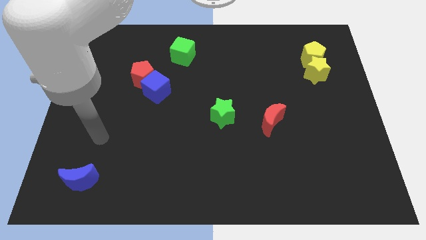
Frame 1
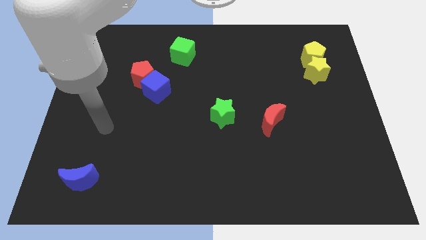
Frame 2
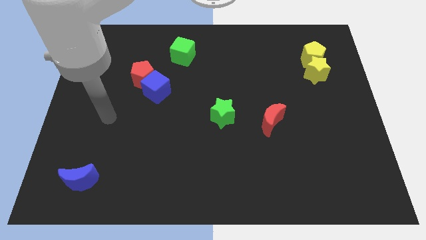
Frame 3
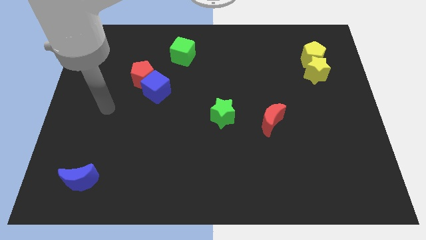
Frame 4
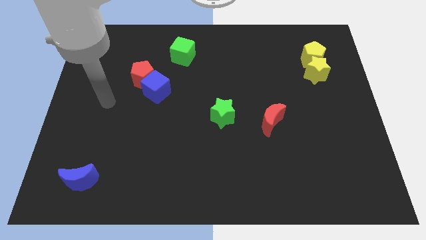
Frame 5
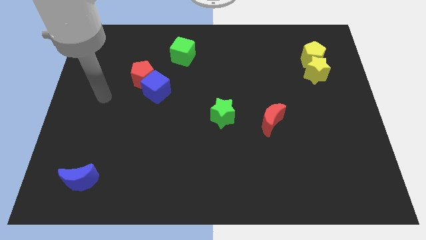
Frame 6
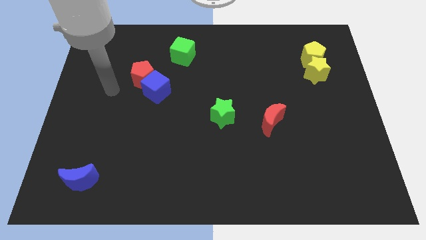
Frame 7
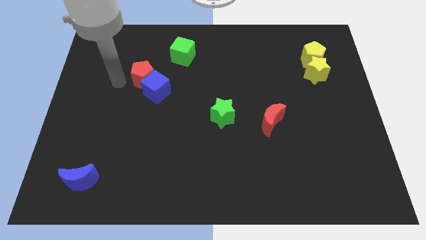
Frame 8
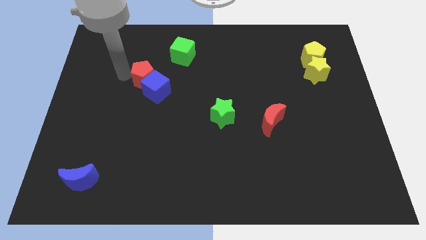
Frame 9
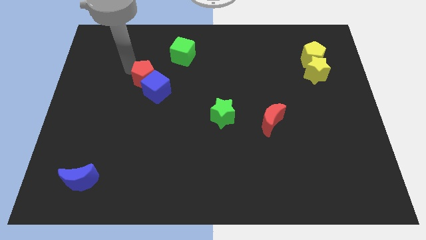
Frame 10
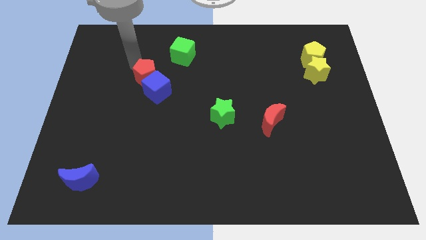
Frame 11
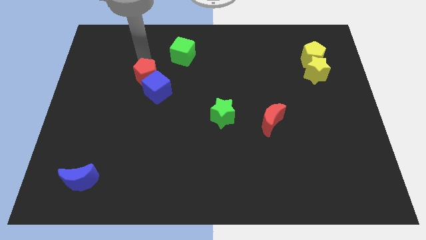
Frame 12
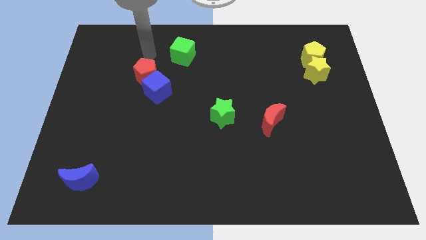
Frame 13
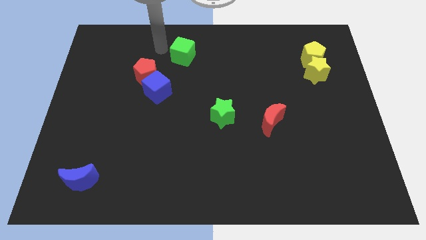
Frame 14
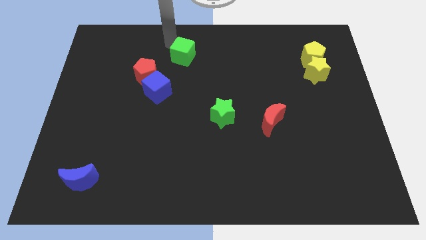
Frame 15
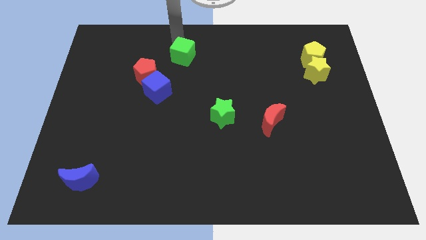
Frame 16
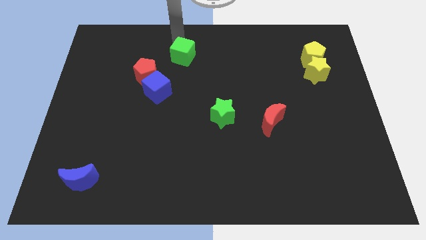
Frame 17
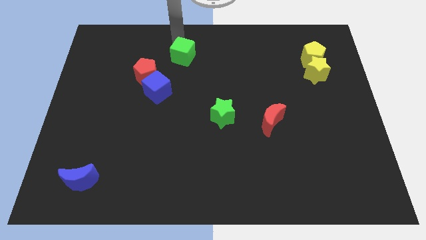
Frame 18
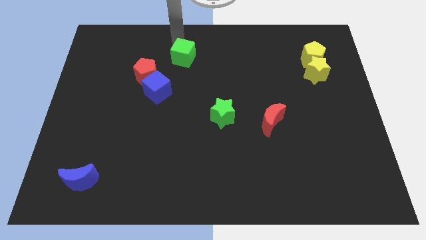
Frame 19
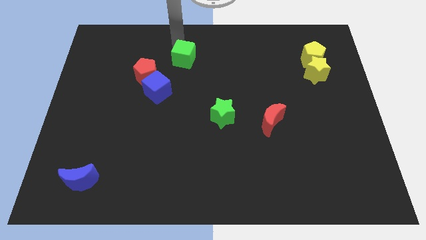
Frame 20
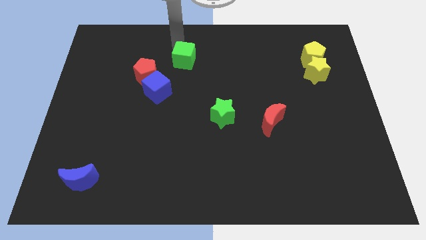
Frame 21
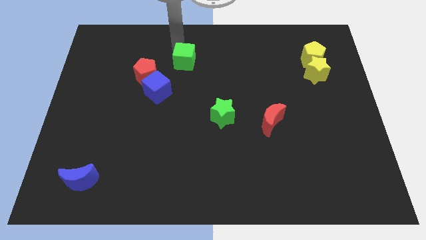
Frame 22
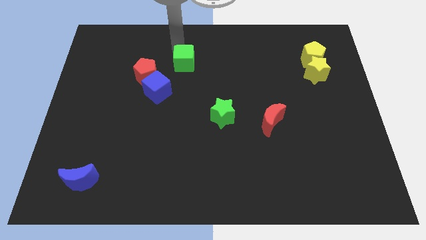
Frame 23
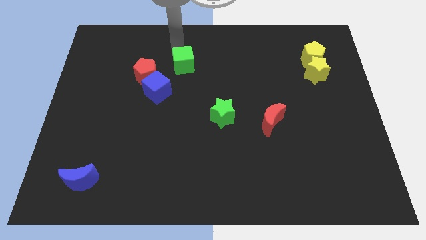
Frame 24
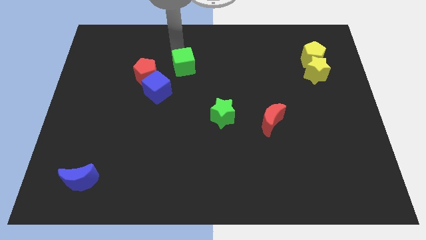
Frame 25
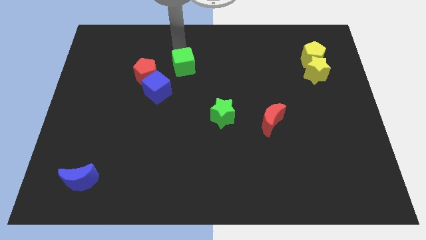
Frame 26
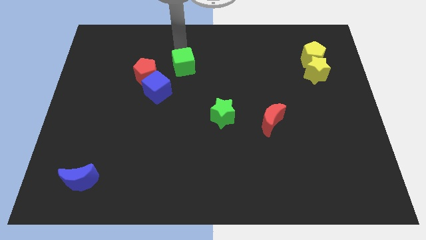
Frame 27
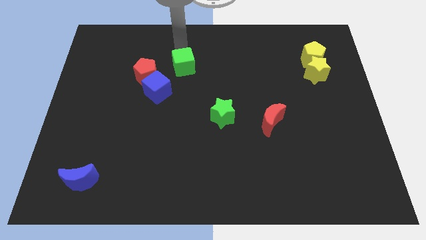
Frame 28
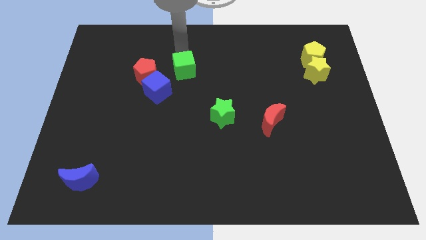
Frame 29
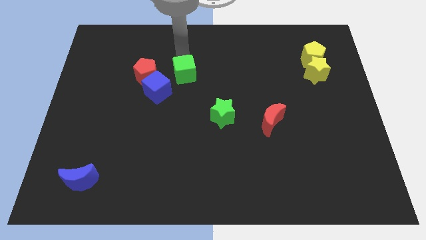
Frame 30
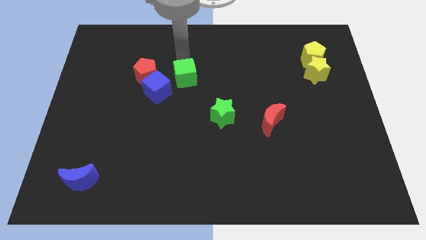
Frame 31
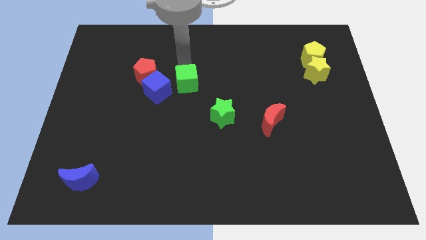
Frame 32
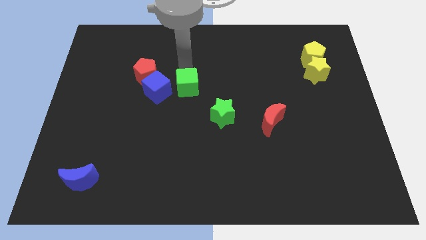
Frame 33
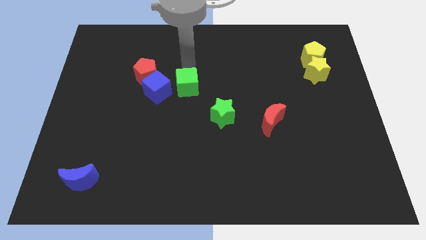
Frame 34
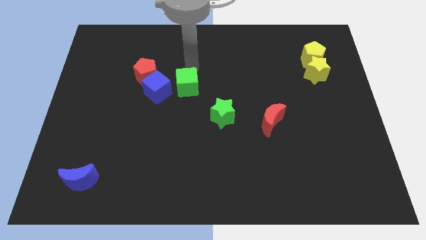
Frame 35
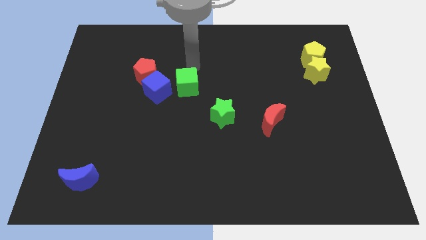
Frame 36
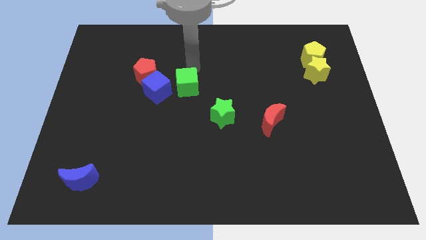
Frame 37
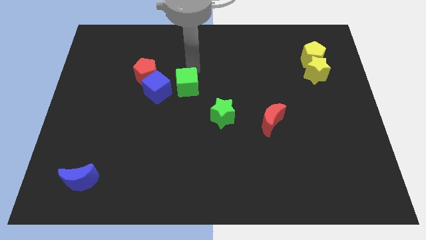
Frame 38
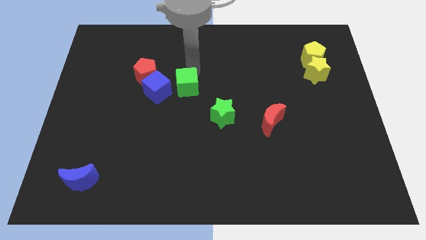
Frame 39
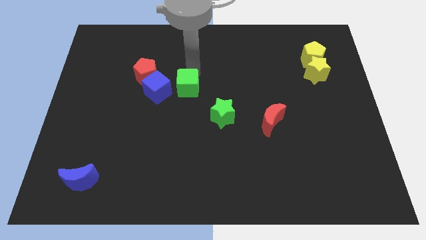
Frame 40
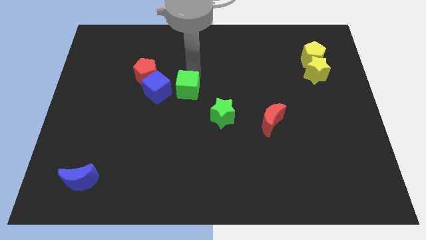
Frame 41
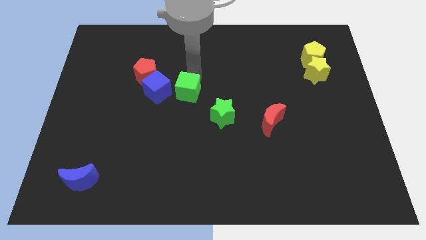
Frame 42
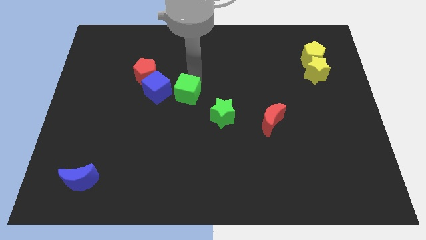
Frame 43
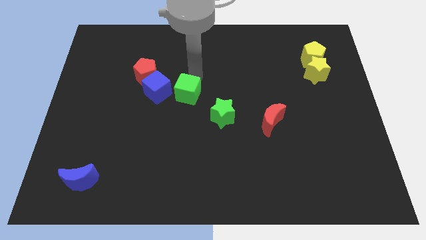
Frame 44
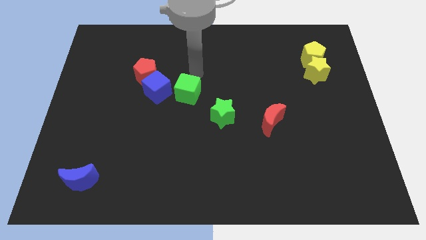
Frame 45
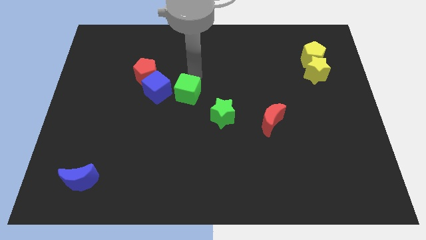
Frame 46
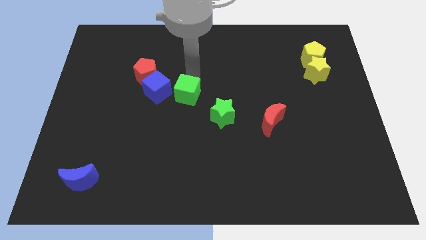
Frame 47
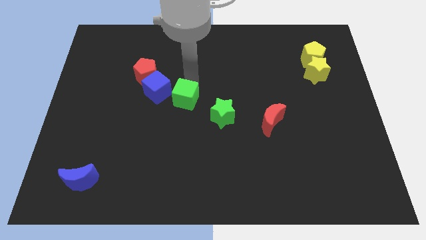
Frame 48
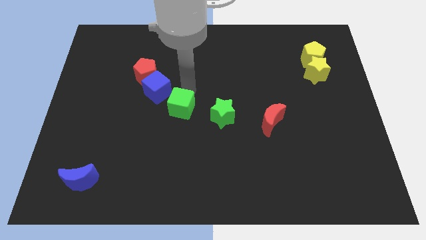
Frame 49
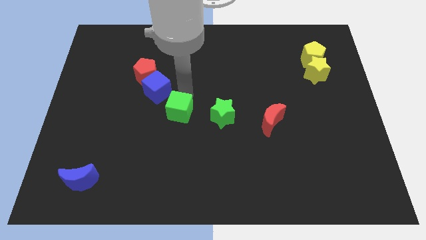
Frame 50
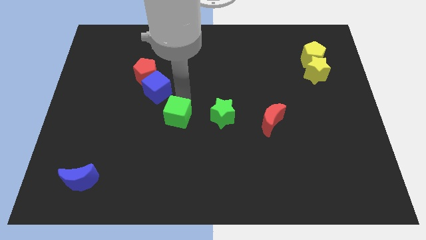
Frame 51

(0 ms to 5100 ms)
slide the green cube down

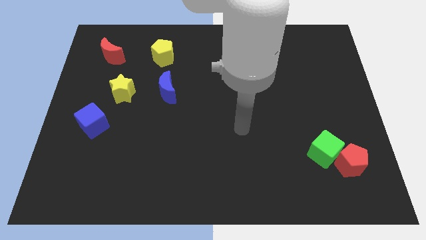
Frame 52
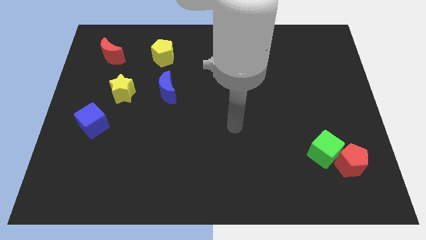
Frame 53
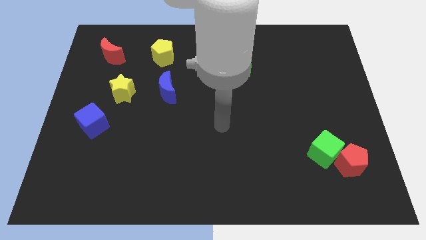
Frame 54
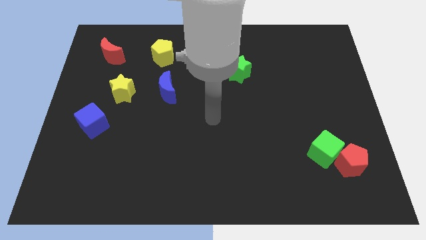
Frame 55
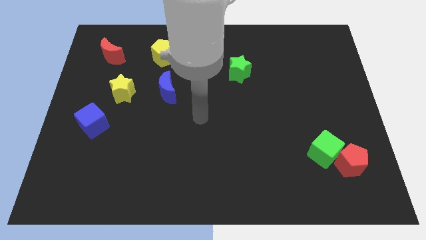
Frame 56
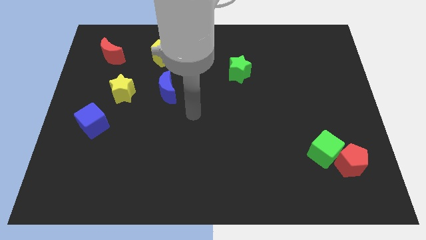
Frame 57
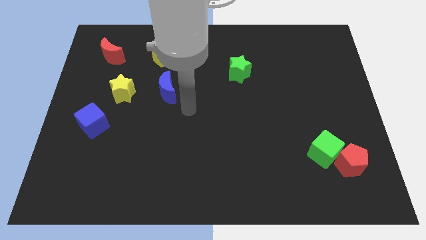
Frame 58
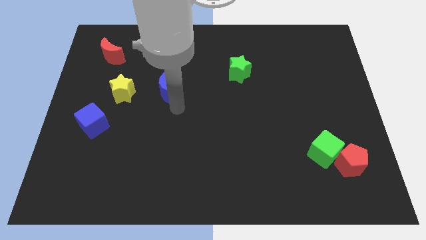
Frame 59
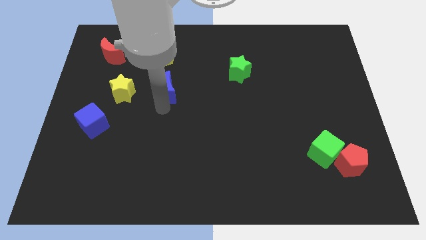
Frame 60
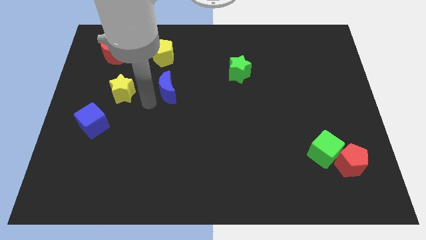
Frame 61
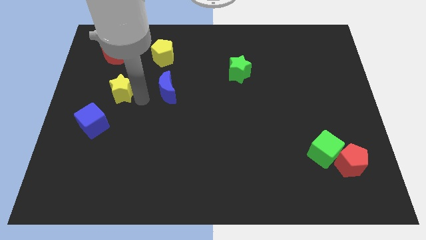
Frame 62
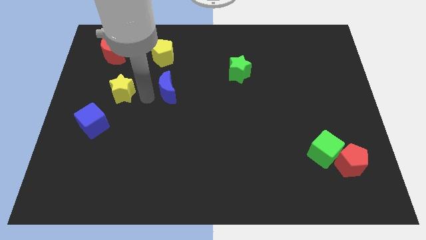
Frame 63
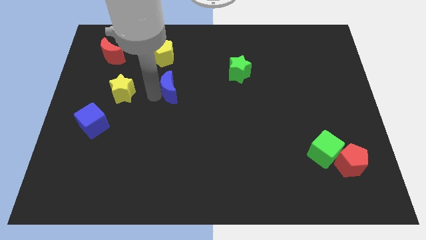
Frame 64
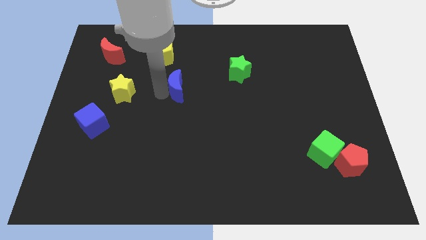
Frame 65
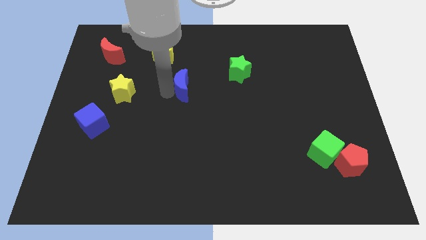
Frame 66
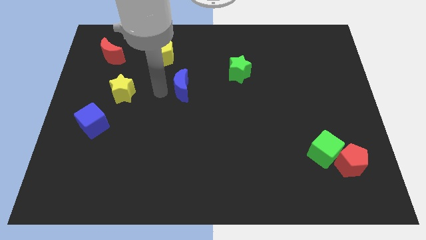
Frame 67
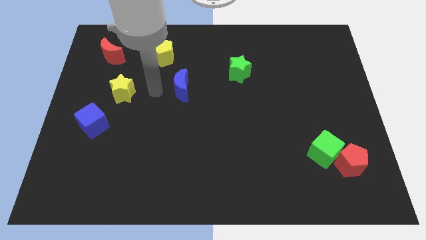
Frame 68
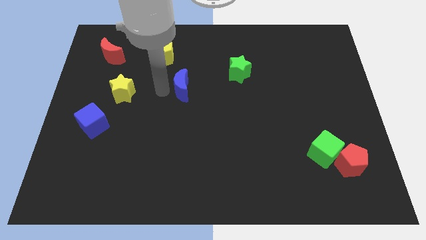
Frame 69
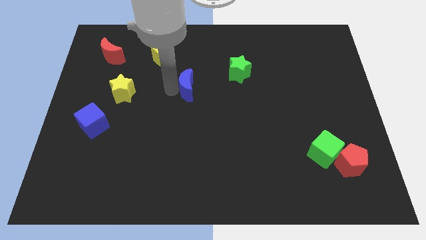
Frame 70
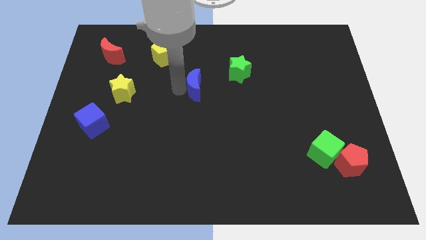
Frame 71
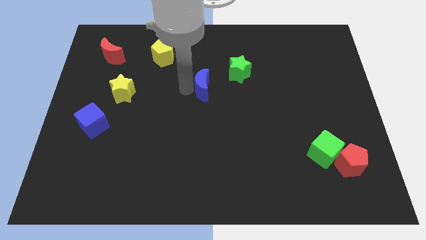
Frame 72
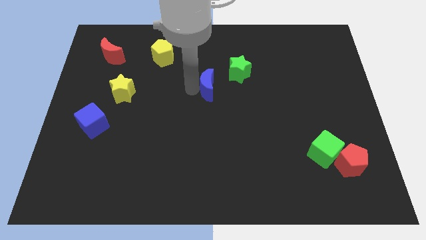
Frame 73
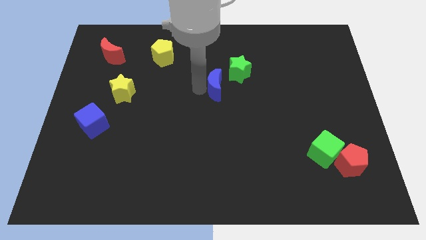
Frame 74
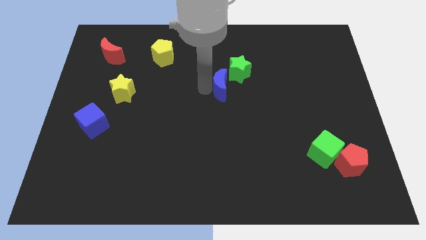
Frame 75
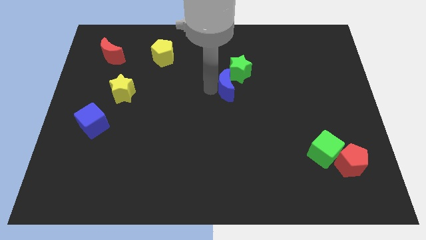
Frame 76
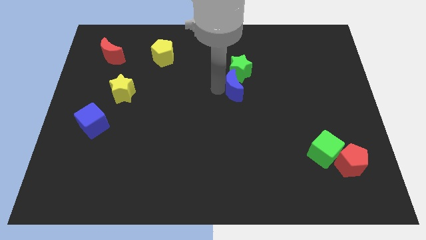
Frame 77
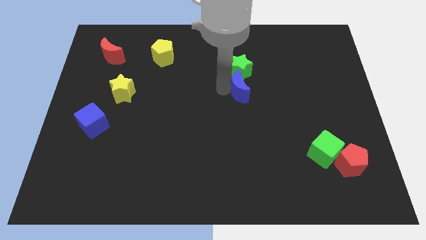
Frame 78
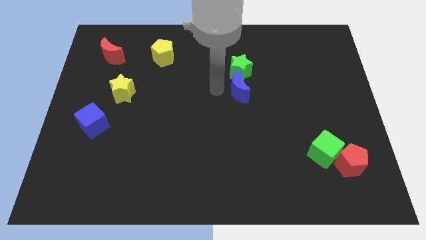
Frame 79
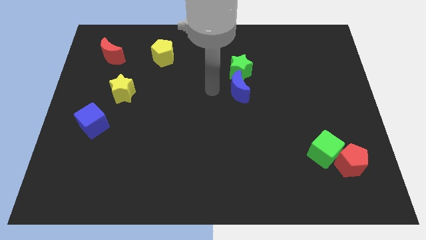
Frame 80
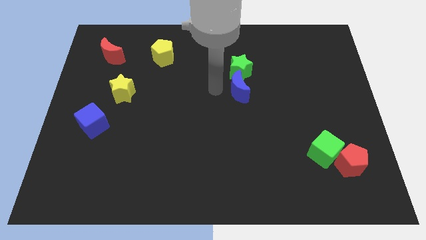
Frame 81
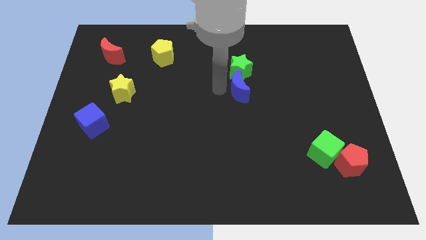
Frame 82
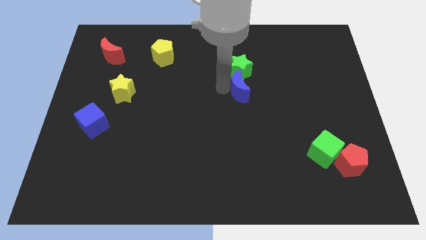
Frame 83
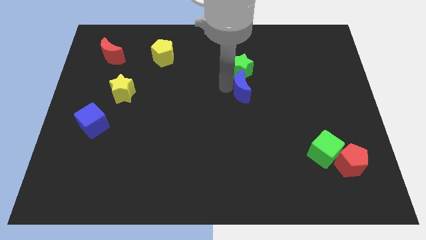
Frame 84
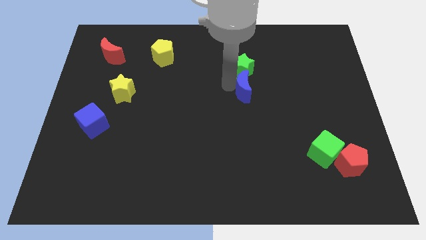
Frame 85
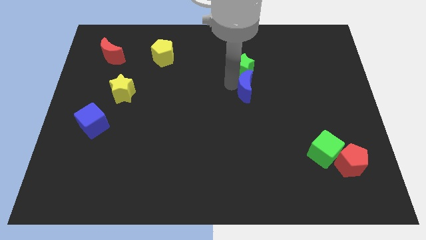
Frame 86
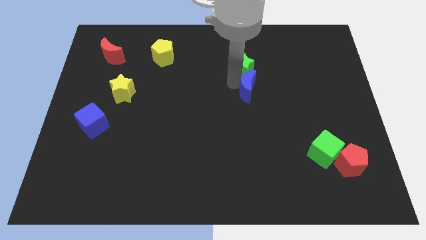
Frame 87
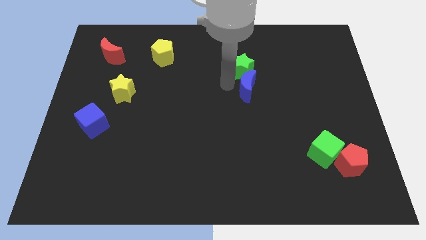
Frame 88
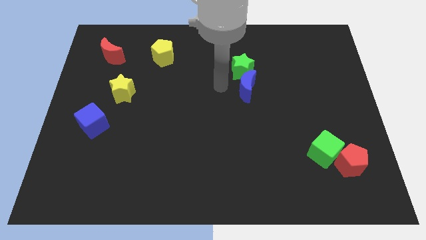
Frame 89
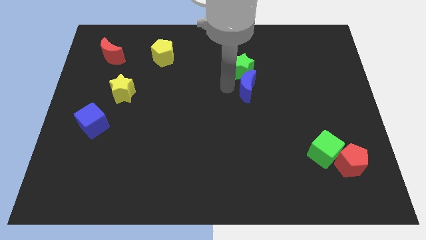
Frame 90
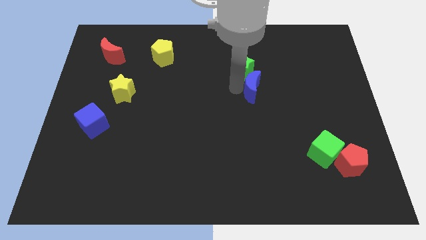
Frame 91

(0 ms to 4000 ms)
push the blue moon to the right
